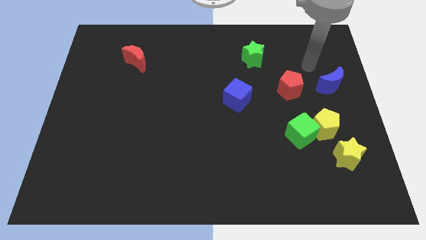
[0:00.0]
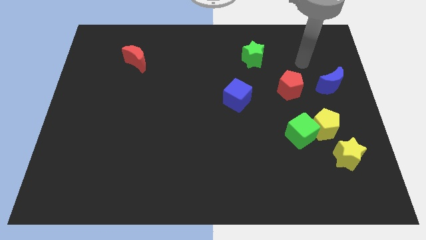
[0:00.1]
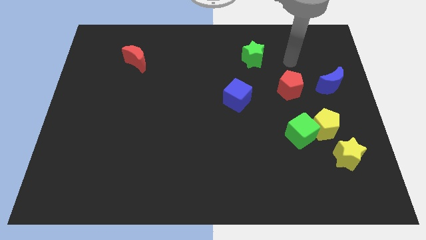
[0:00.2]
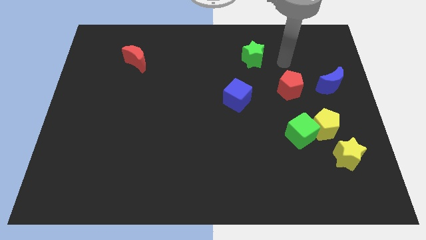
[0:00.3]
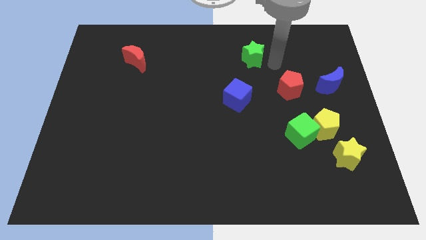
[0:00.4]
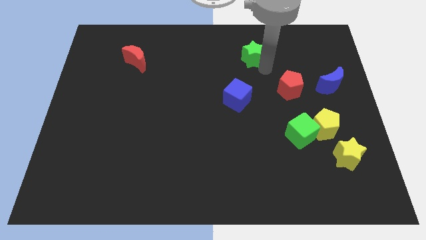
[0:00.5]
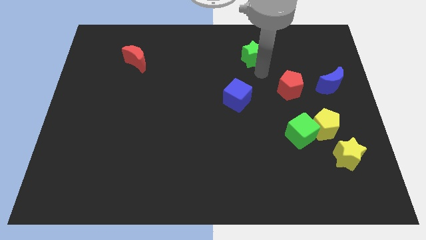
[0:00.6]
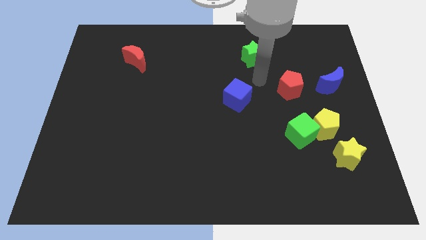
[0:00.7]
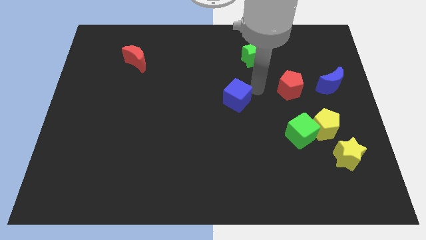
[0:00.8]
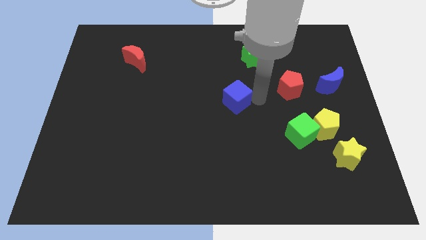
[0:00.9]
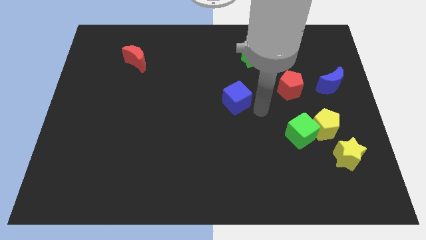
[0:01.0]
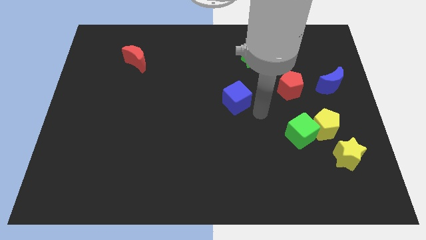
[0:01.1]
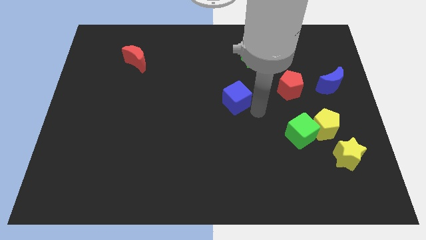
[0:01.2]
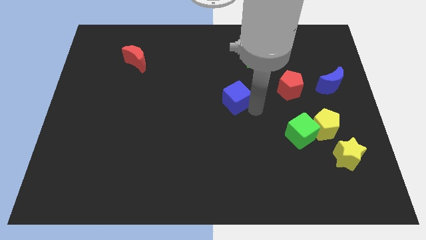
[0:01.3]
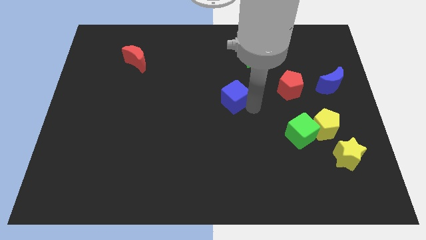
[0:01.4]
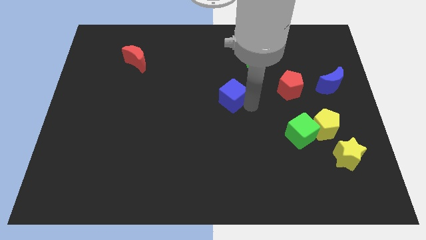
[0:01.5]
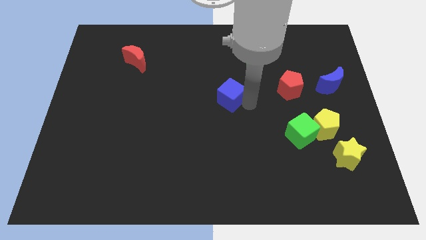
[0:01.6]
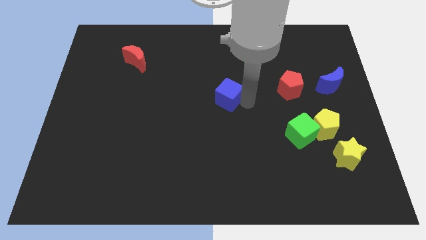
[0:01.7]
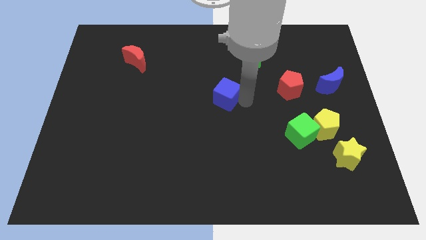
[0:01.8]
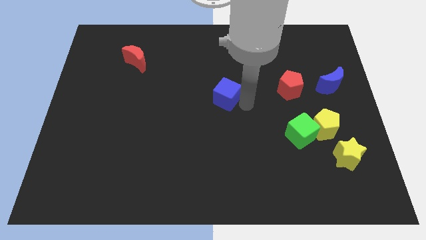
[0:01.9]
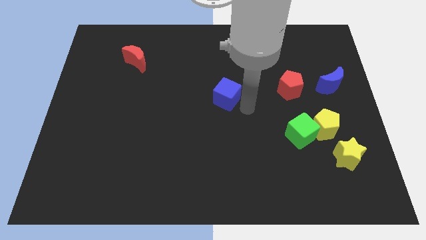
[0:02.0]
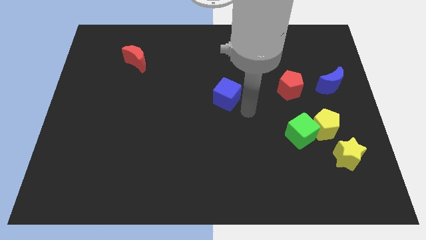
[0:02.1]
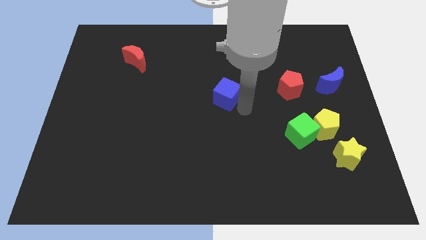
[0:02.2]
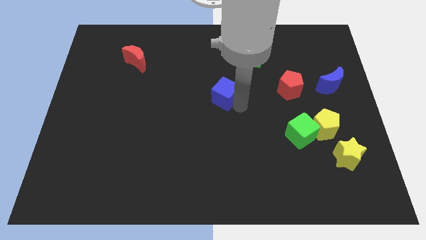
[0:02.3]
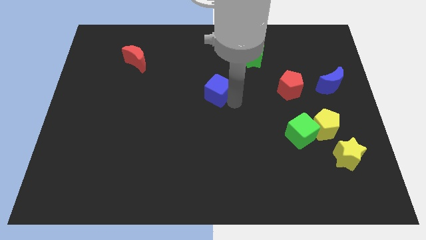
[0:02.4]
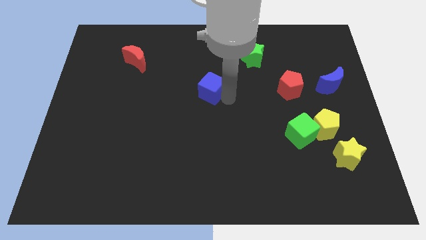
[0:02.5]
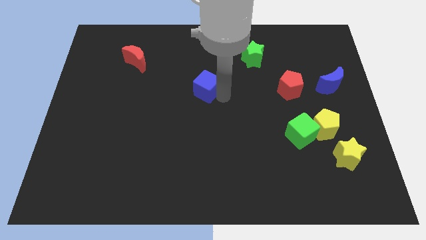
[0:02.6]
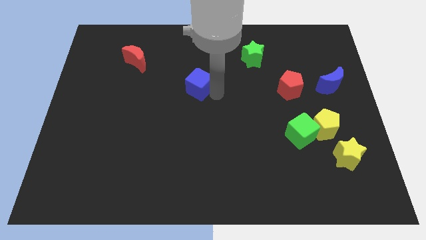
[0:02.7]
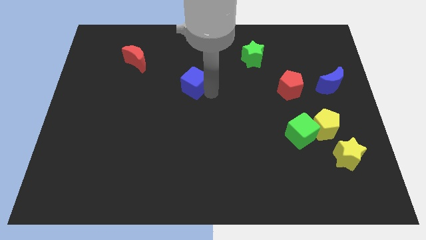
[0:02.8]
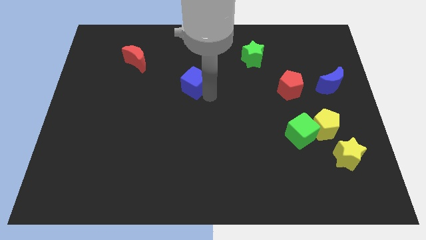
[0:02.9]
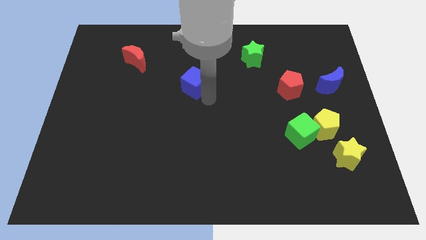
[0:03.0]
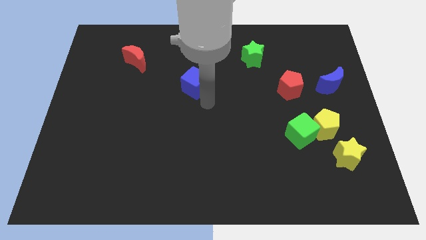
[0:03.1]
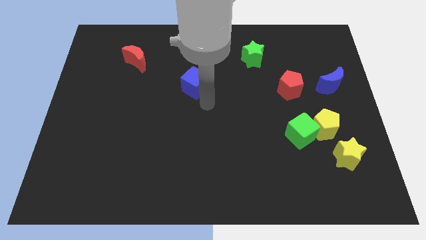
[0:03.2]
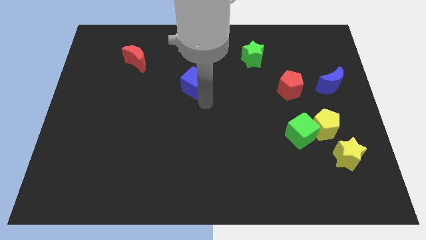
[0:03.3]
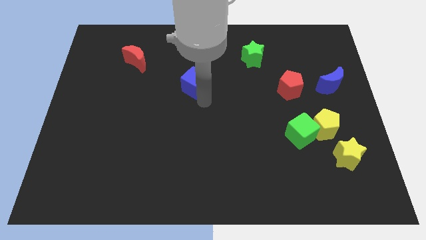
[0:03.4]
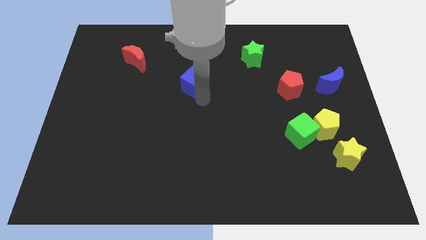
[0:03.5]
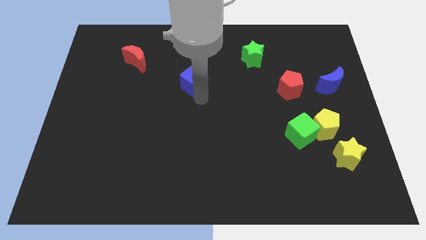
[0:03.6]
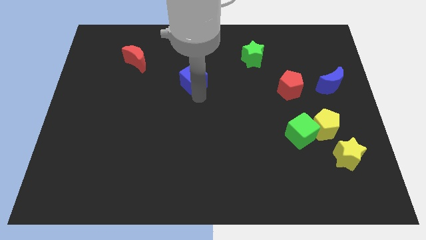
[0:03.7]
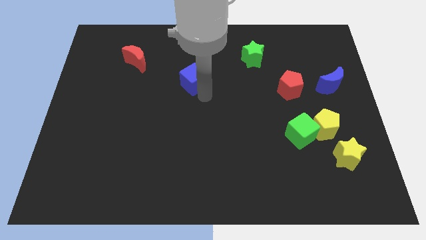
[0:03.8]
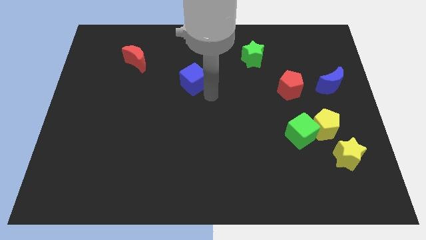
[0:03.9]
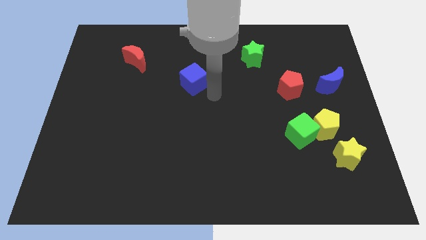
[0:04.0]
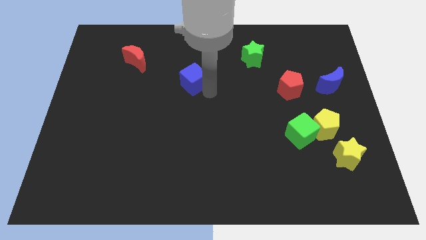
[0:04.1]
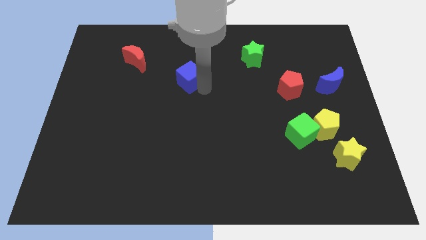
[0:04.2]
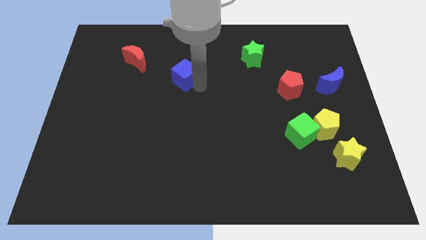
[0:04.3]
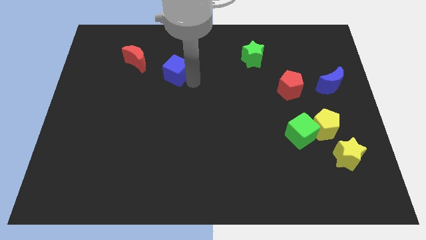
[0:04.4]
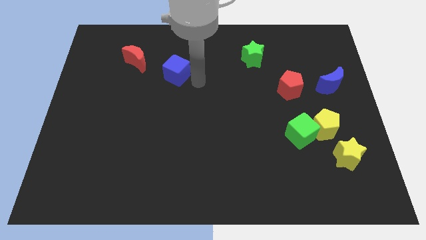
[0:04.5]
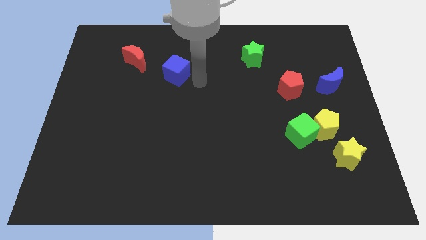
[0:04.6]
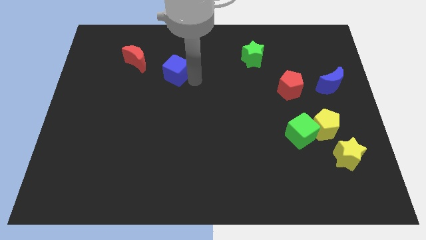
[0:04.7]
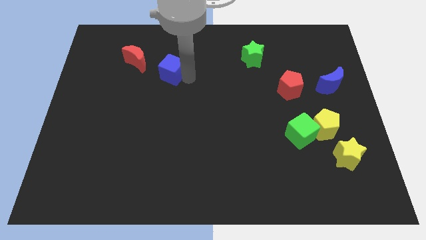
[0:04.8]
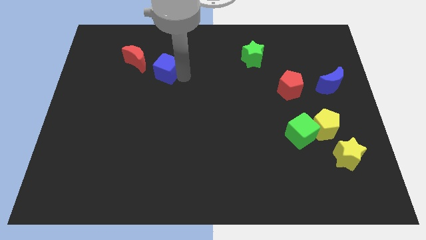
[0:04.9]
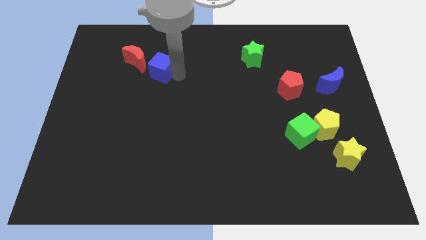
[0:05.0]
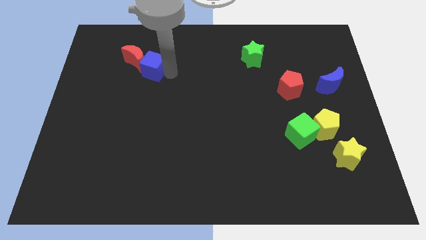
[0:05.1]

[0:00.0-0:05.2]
move the blue cube to the red moon

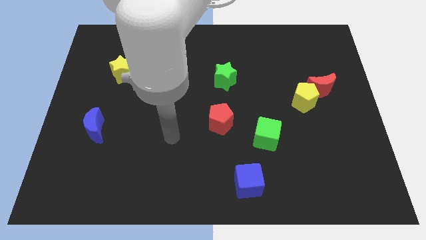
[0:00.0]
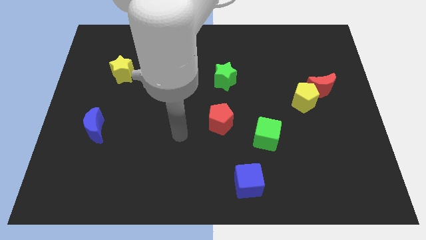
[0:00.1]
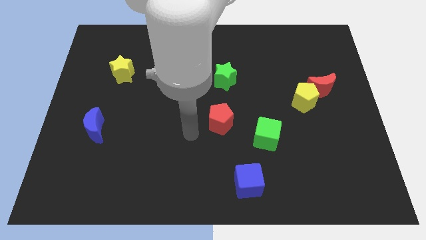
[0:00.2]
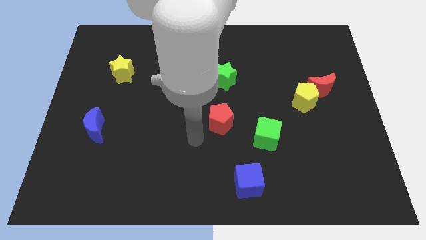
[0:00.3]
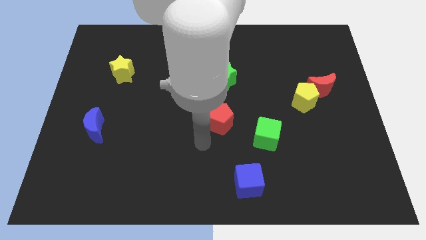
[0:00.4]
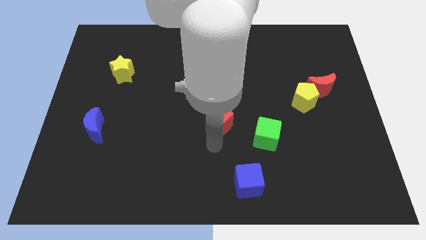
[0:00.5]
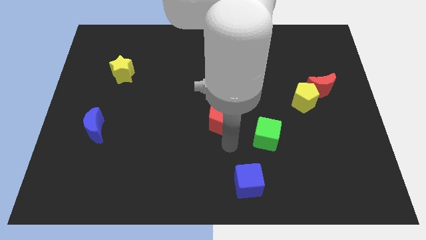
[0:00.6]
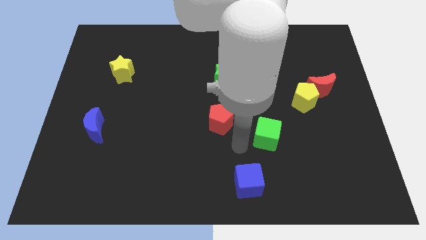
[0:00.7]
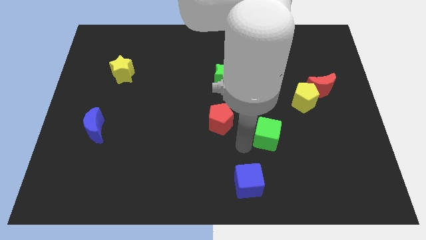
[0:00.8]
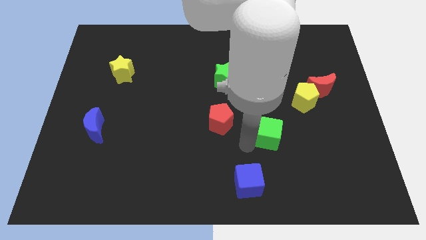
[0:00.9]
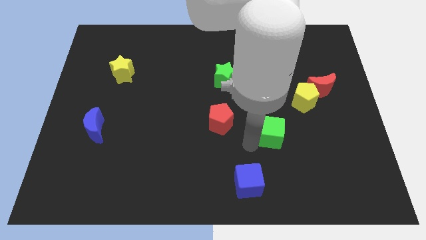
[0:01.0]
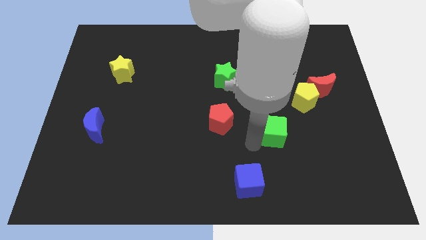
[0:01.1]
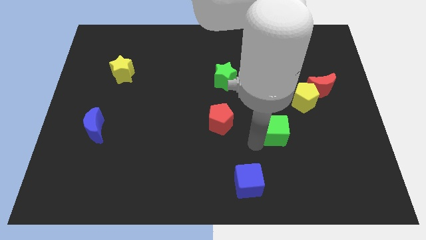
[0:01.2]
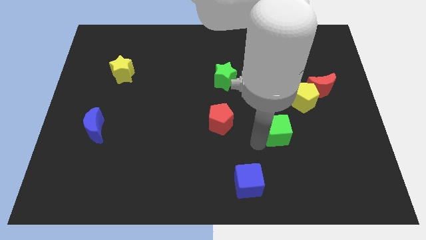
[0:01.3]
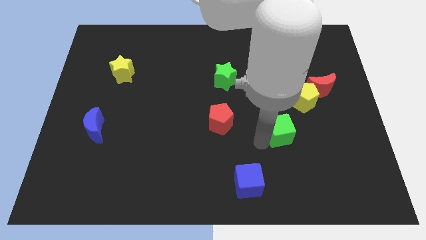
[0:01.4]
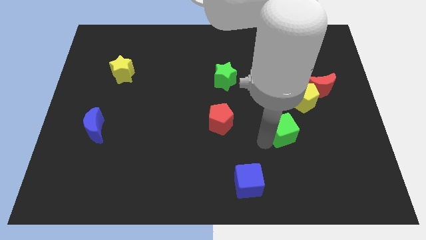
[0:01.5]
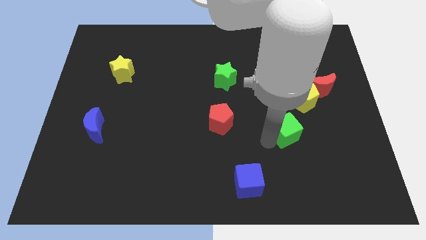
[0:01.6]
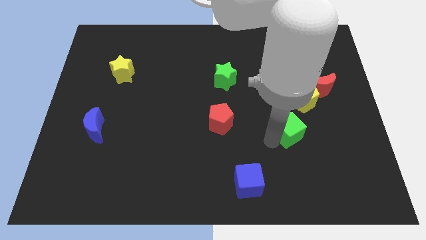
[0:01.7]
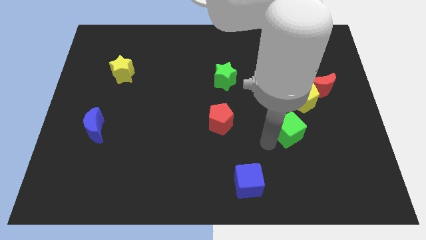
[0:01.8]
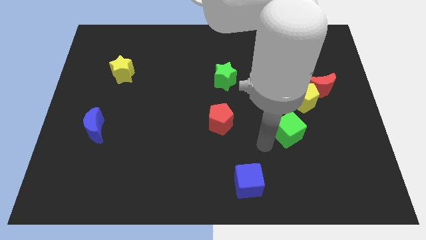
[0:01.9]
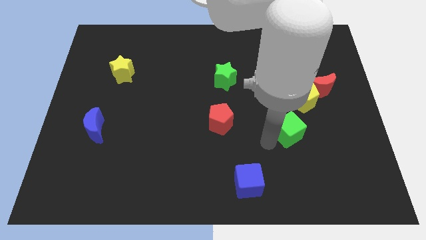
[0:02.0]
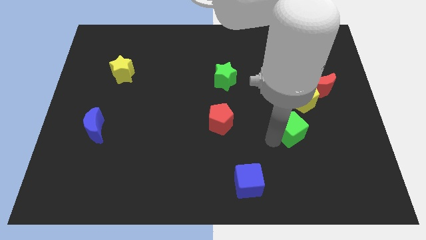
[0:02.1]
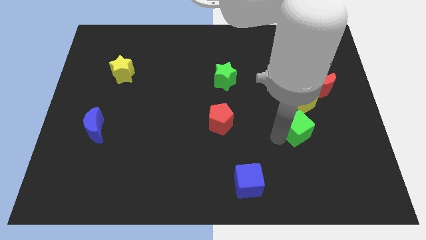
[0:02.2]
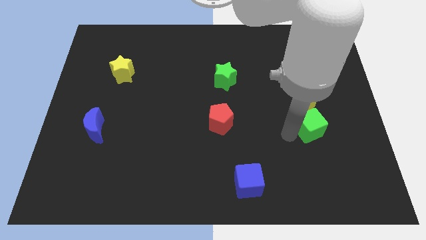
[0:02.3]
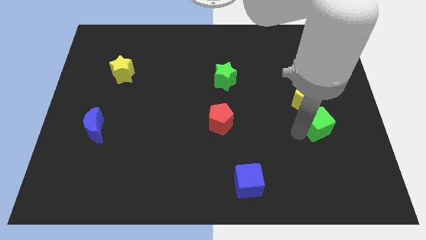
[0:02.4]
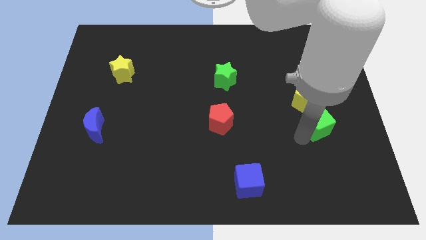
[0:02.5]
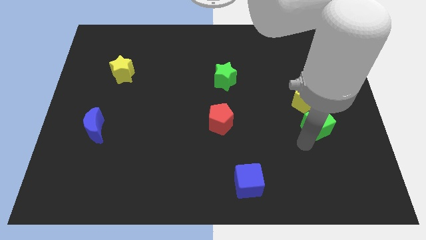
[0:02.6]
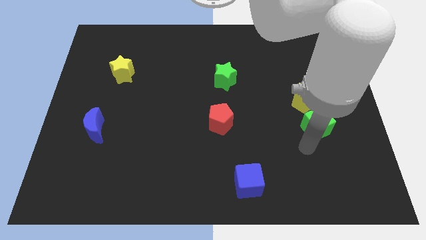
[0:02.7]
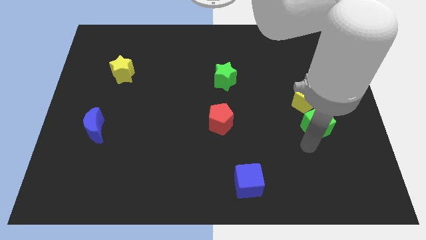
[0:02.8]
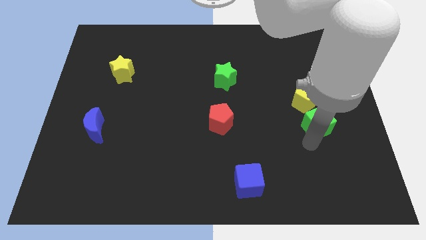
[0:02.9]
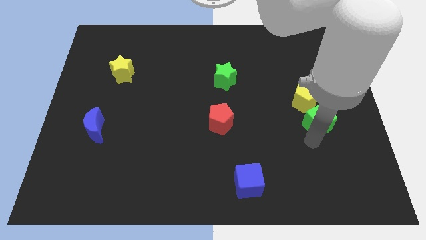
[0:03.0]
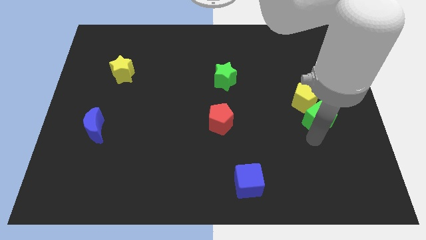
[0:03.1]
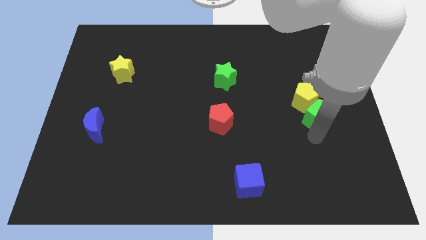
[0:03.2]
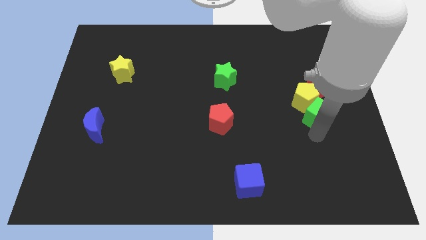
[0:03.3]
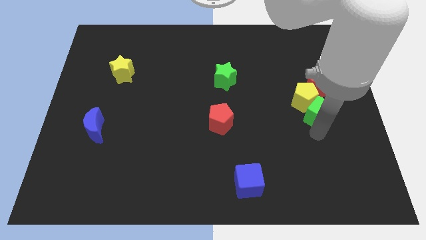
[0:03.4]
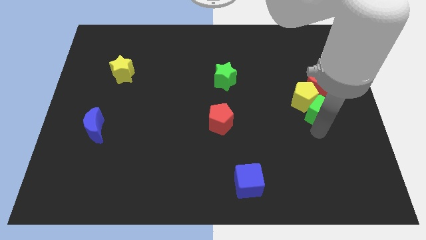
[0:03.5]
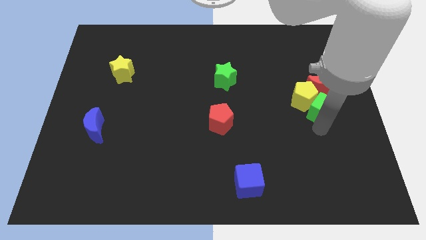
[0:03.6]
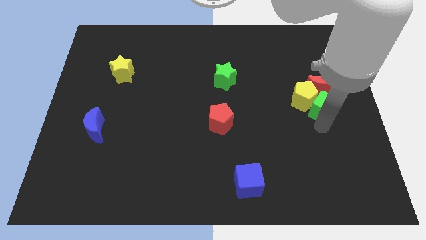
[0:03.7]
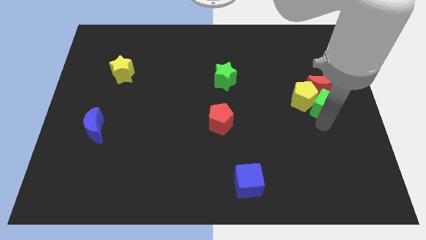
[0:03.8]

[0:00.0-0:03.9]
push the green cube to the red moon
